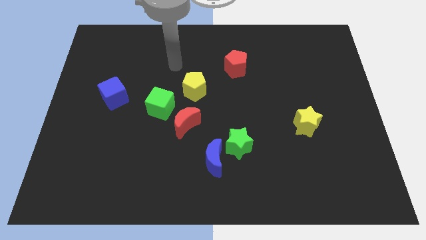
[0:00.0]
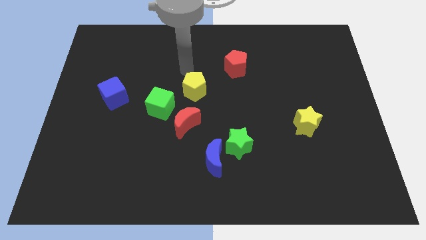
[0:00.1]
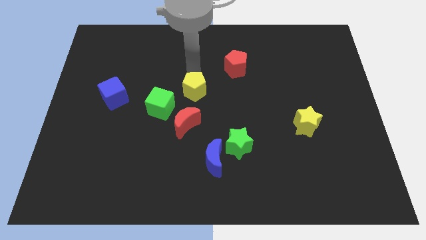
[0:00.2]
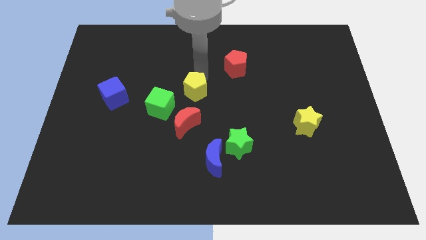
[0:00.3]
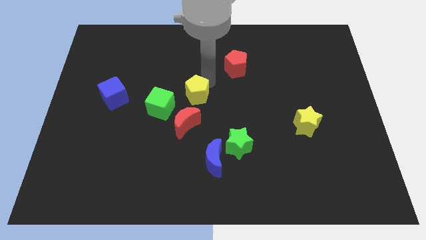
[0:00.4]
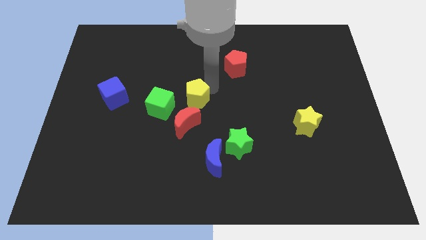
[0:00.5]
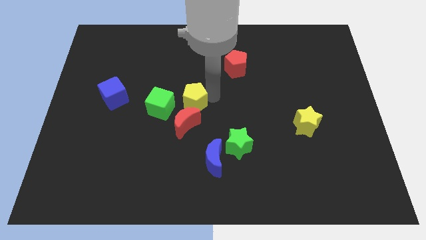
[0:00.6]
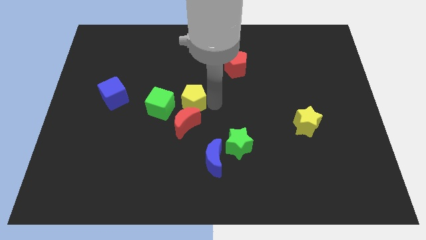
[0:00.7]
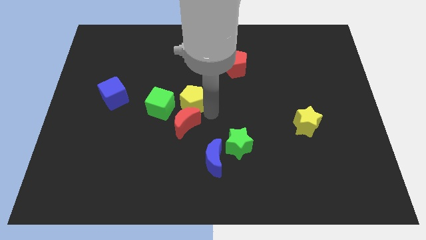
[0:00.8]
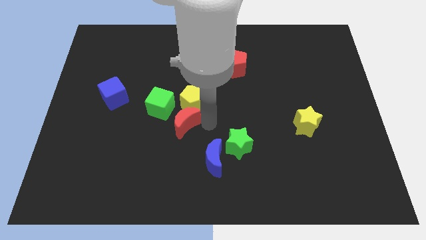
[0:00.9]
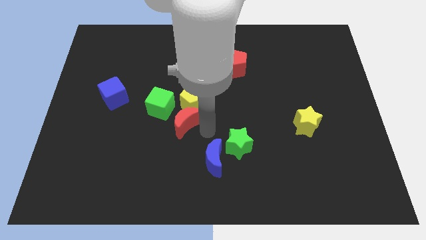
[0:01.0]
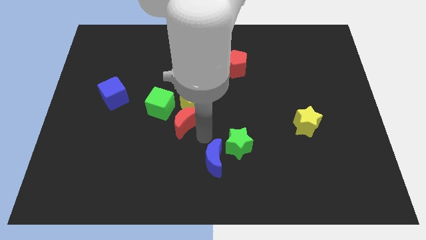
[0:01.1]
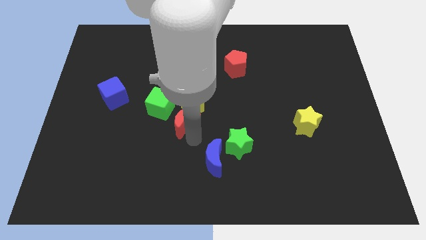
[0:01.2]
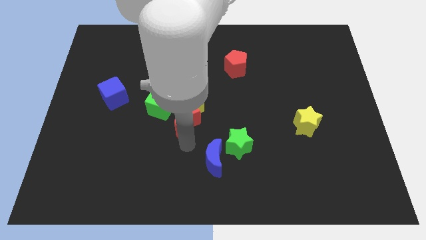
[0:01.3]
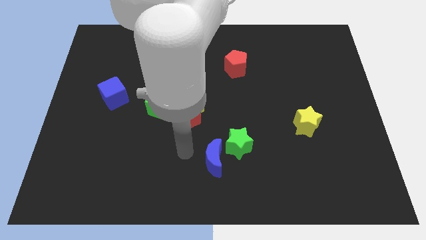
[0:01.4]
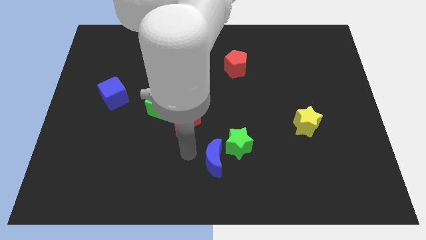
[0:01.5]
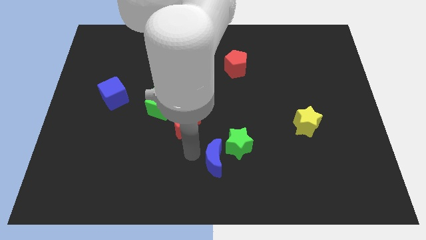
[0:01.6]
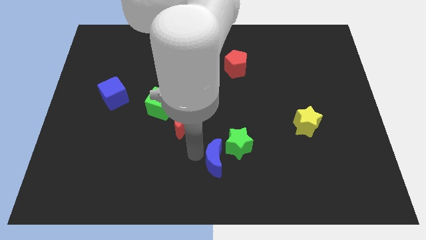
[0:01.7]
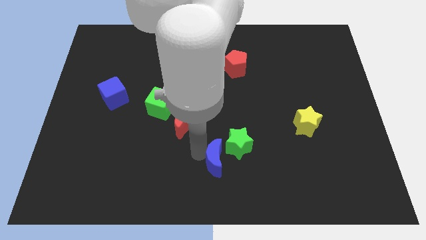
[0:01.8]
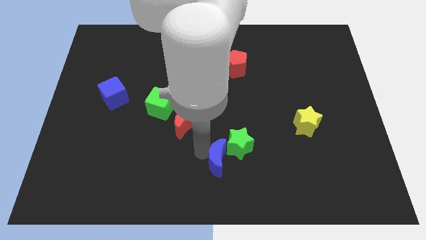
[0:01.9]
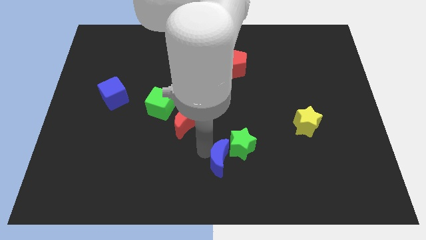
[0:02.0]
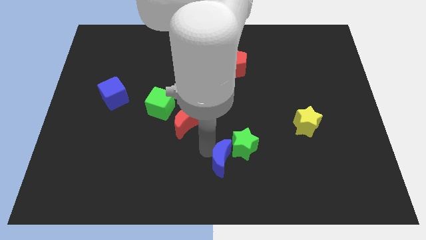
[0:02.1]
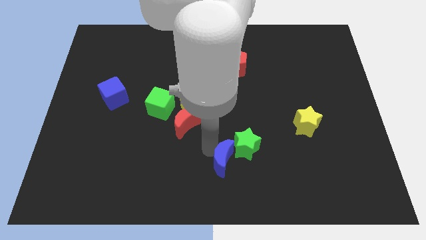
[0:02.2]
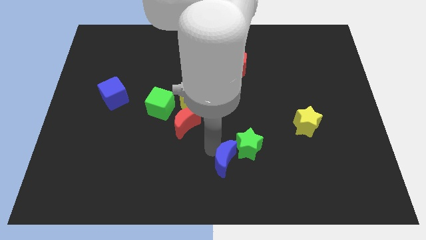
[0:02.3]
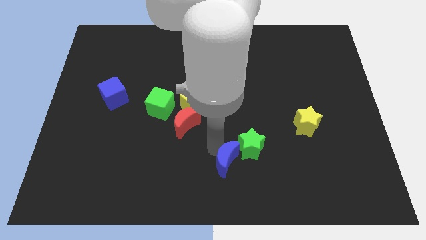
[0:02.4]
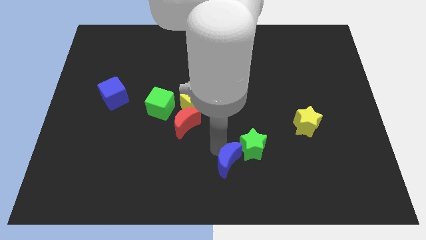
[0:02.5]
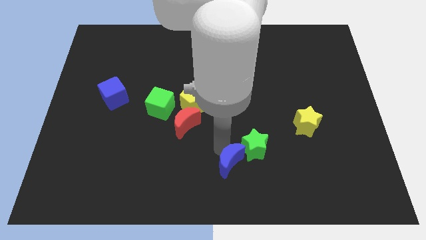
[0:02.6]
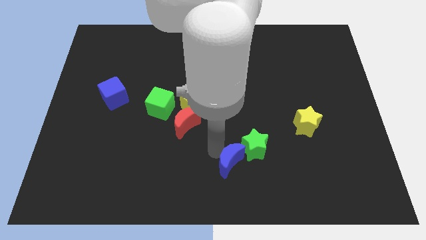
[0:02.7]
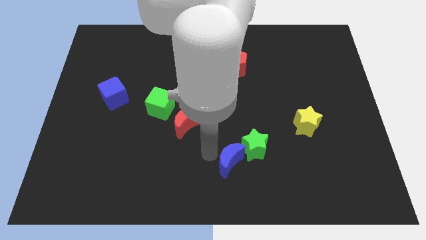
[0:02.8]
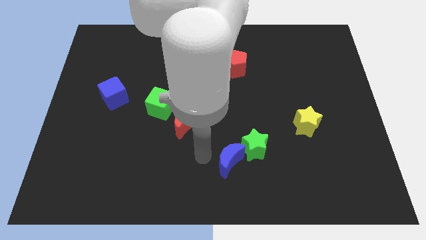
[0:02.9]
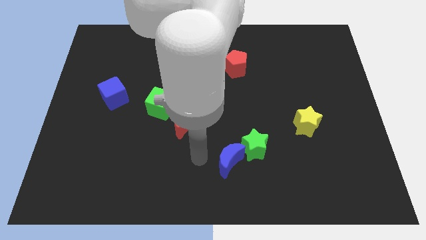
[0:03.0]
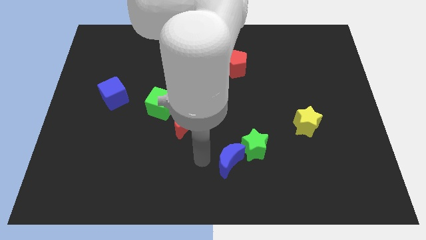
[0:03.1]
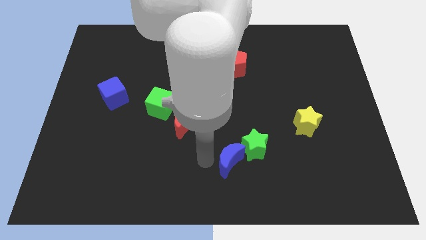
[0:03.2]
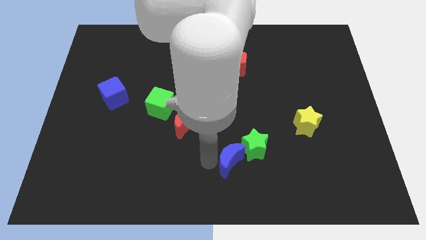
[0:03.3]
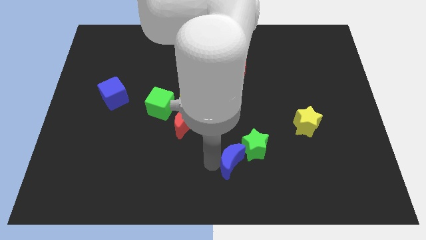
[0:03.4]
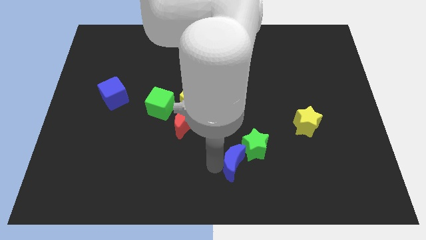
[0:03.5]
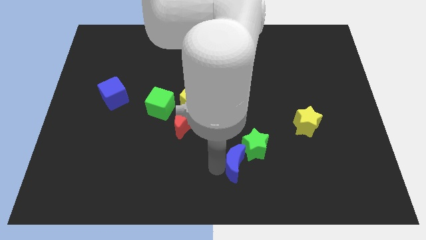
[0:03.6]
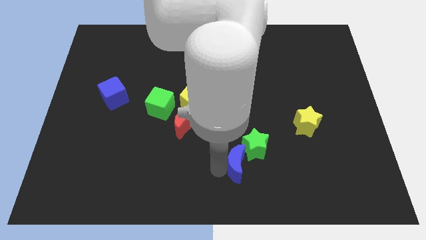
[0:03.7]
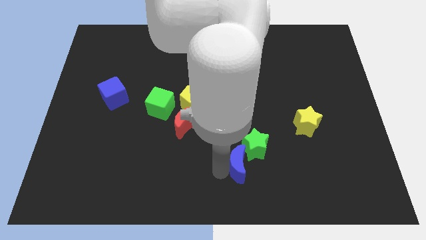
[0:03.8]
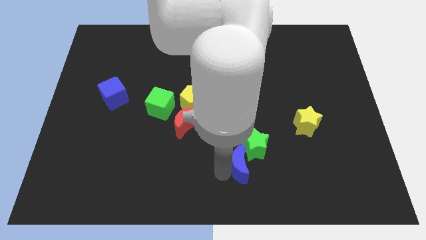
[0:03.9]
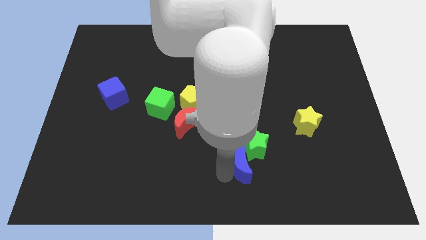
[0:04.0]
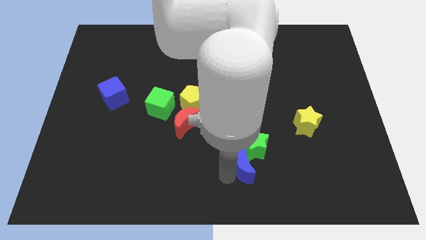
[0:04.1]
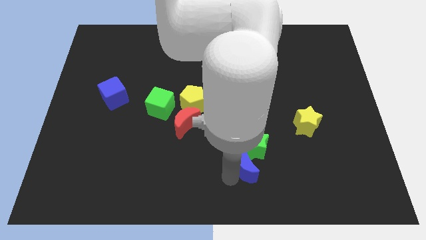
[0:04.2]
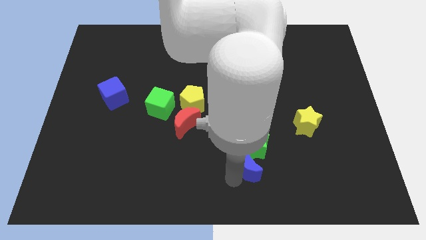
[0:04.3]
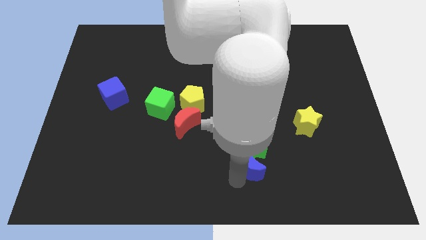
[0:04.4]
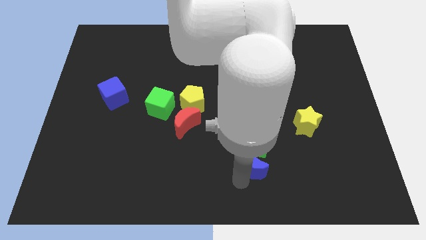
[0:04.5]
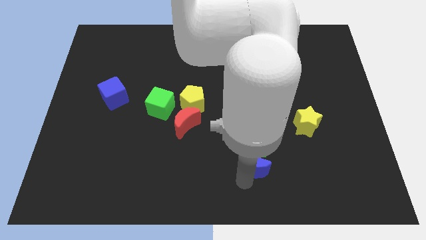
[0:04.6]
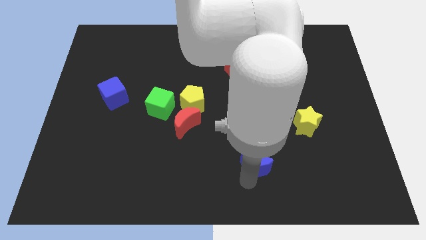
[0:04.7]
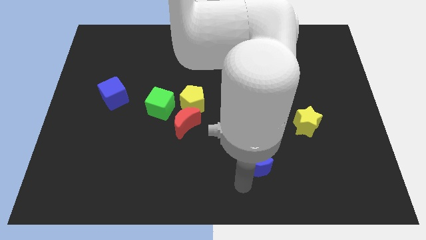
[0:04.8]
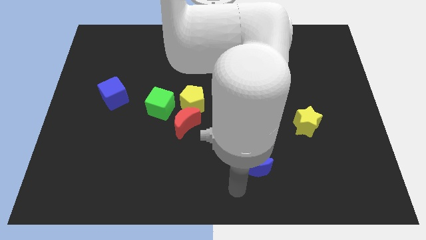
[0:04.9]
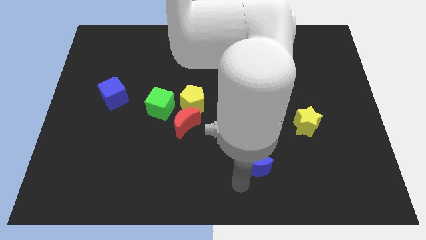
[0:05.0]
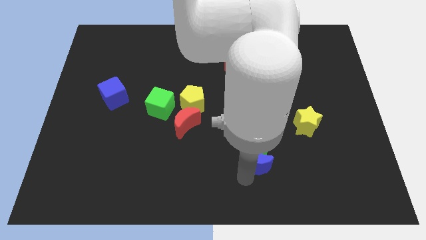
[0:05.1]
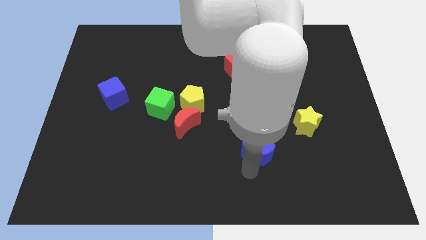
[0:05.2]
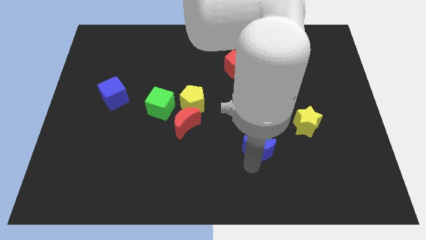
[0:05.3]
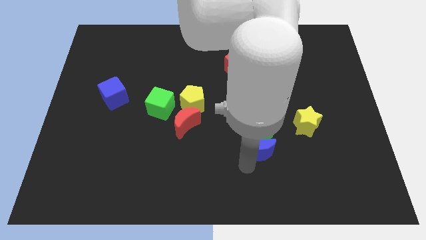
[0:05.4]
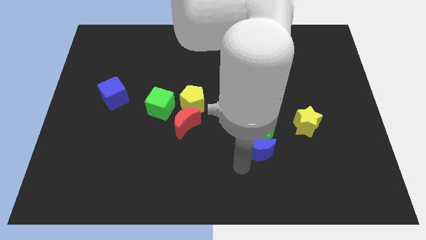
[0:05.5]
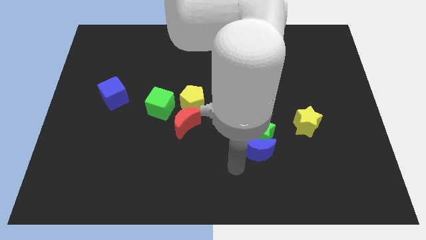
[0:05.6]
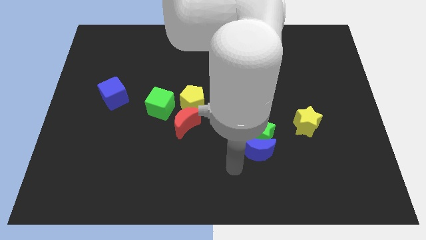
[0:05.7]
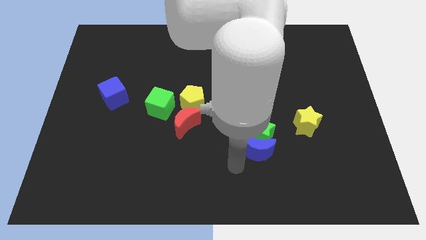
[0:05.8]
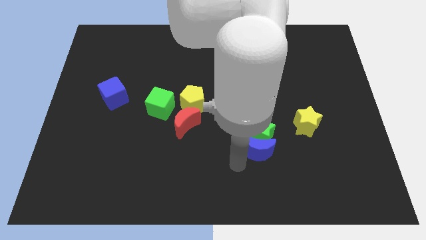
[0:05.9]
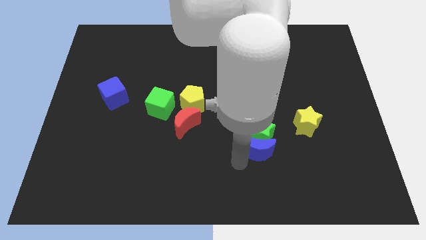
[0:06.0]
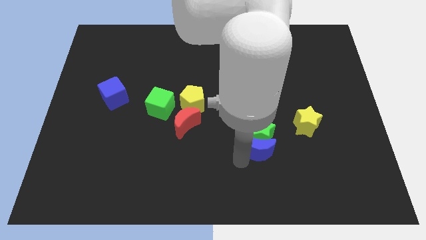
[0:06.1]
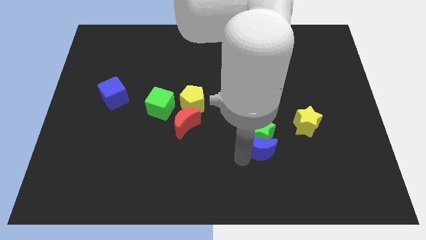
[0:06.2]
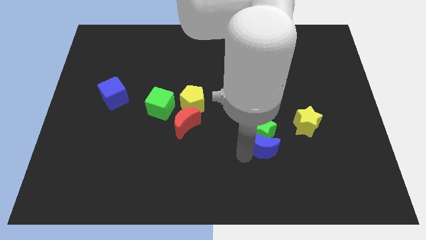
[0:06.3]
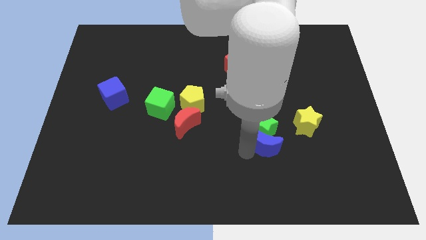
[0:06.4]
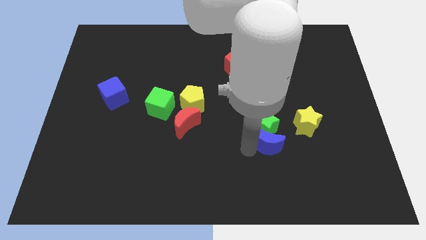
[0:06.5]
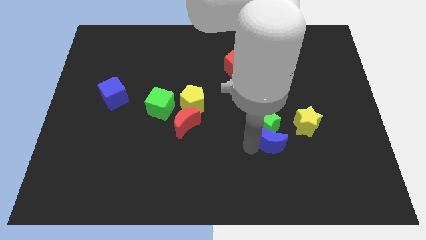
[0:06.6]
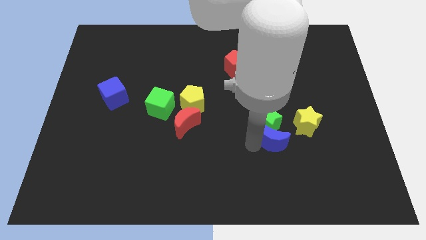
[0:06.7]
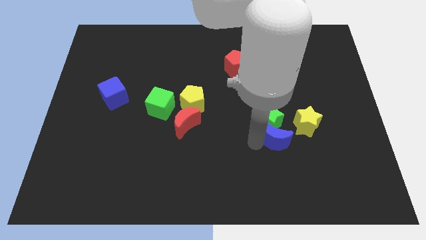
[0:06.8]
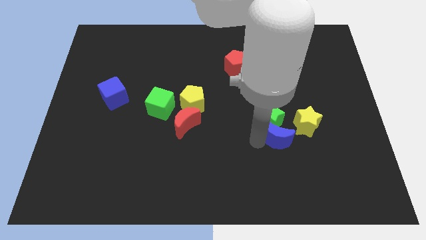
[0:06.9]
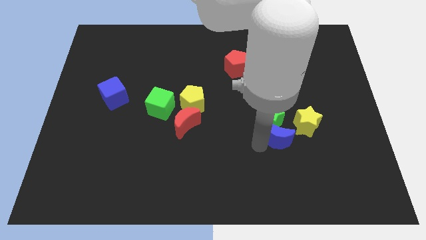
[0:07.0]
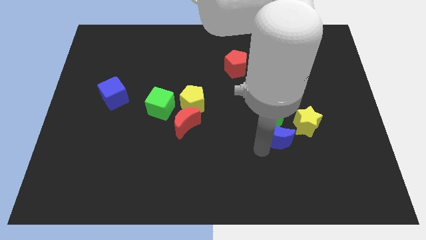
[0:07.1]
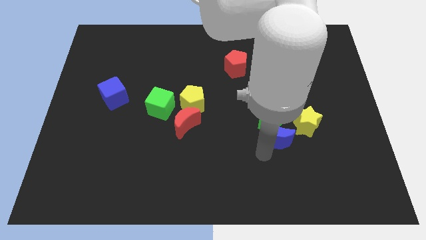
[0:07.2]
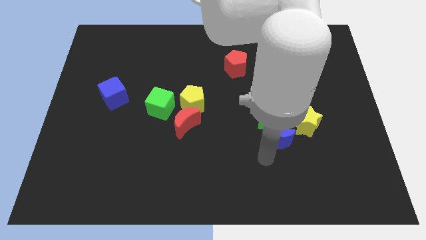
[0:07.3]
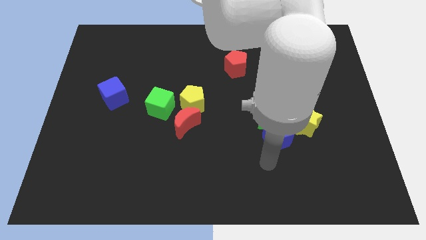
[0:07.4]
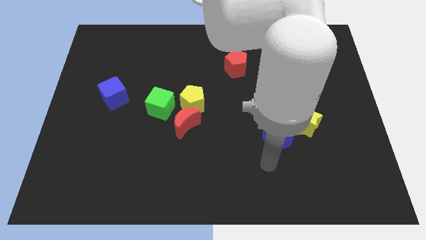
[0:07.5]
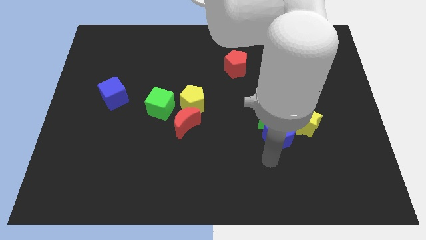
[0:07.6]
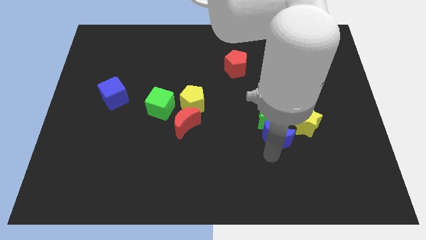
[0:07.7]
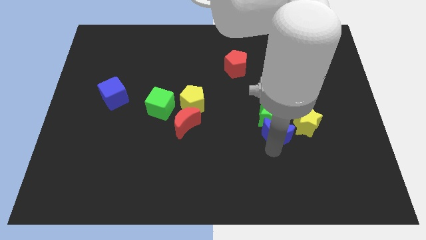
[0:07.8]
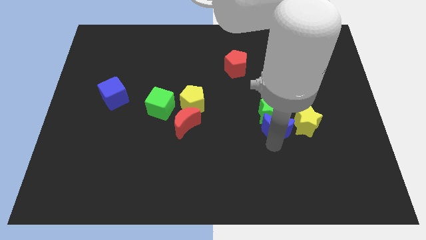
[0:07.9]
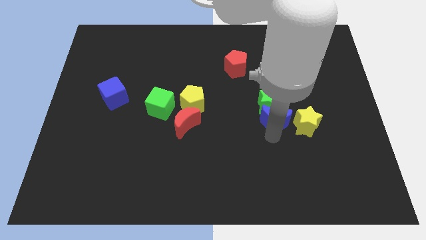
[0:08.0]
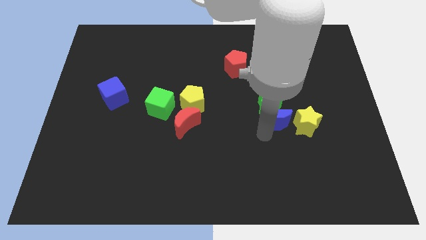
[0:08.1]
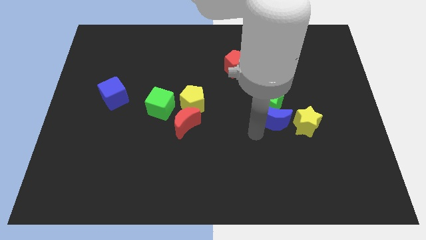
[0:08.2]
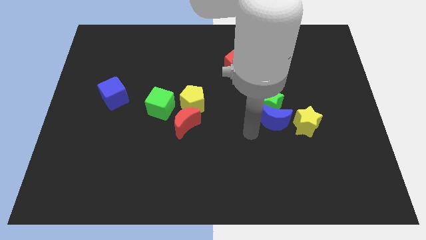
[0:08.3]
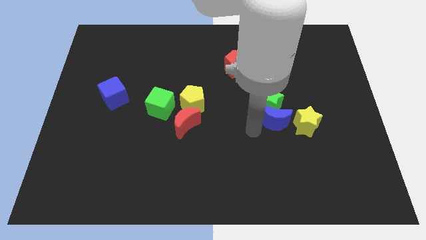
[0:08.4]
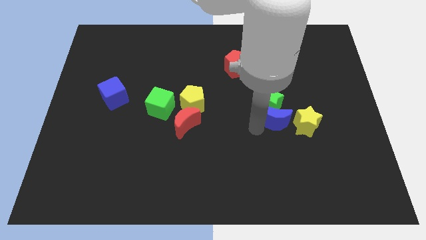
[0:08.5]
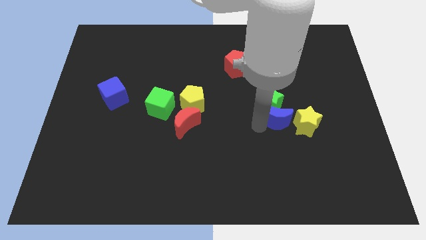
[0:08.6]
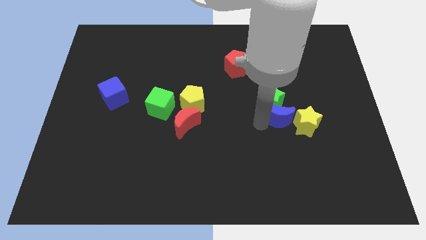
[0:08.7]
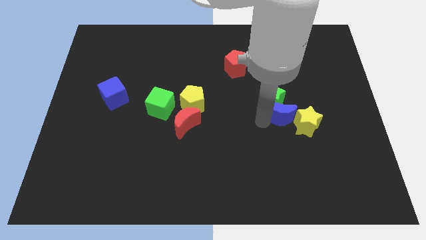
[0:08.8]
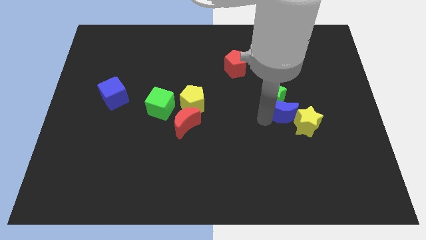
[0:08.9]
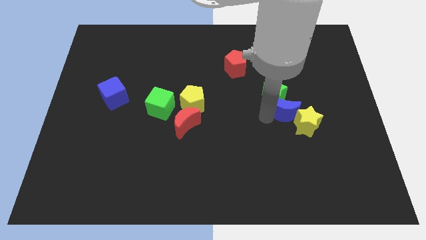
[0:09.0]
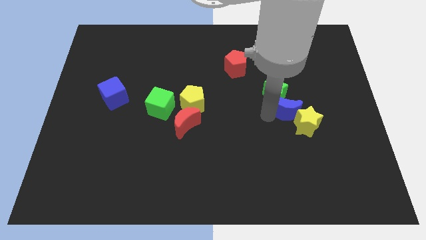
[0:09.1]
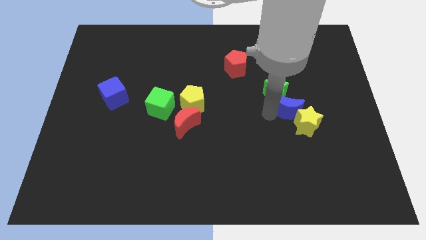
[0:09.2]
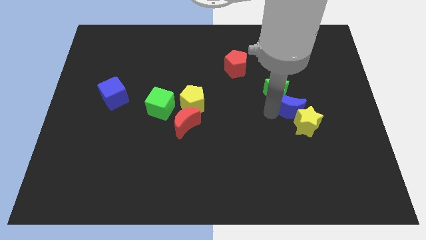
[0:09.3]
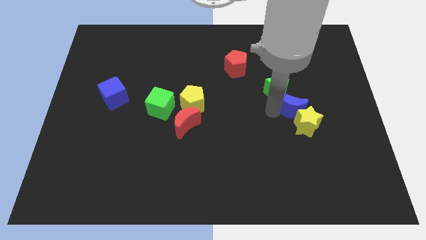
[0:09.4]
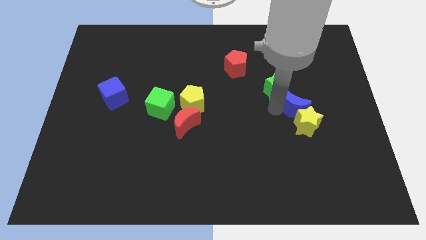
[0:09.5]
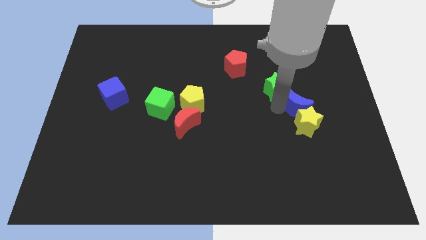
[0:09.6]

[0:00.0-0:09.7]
push the blue moon to the top right side of the yellow star
